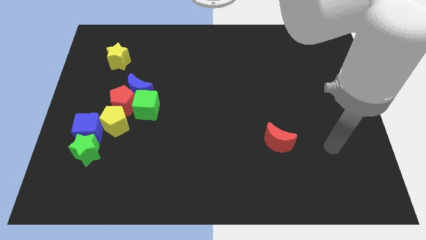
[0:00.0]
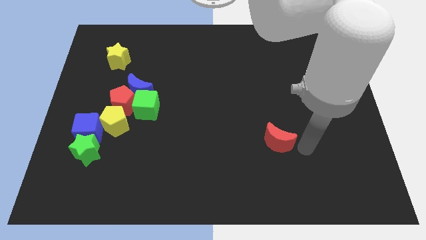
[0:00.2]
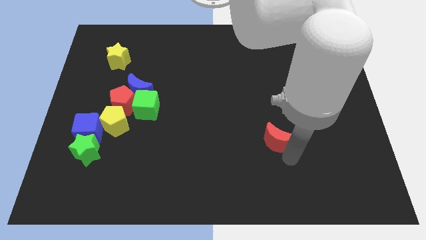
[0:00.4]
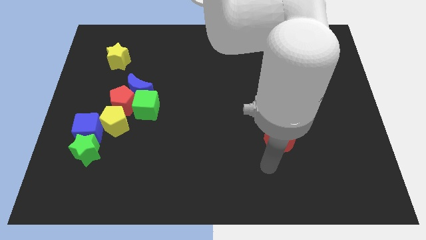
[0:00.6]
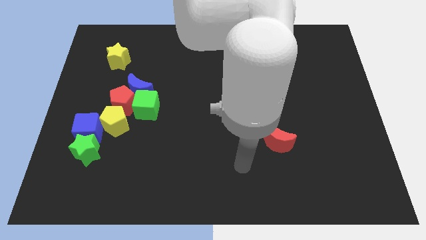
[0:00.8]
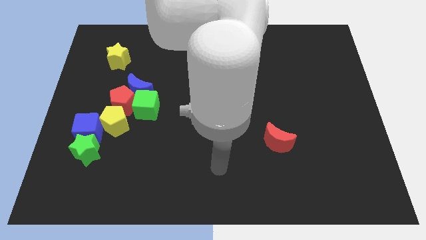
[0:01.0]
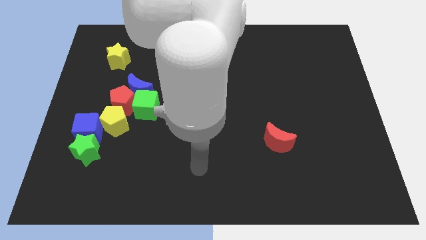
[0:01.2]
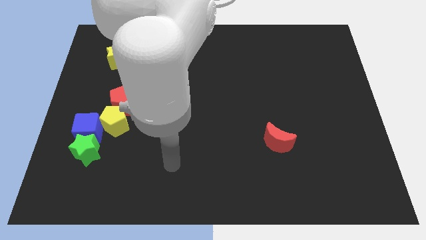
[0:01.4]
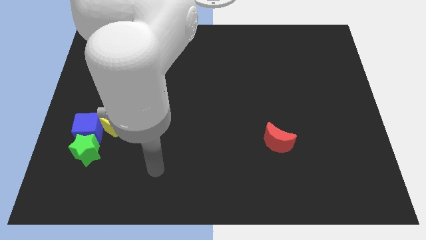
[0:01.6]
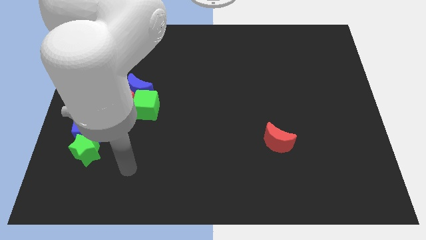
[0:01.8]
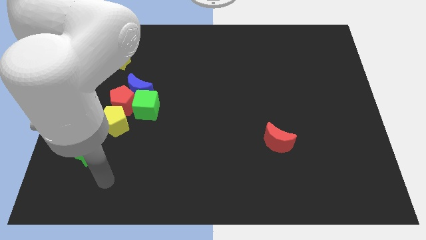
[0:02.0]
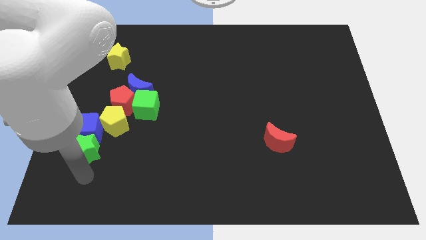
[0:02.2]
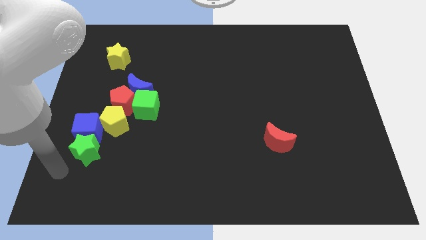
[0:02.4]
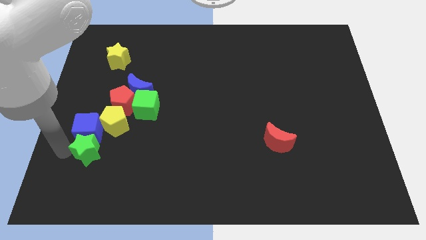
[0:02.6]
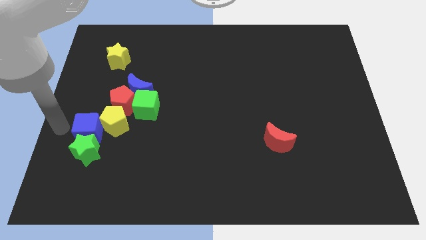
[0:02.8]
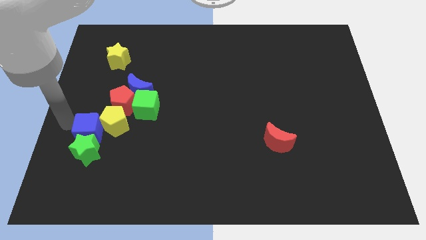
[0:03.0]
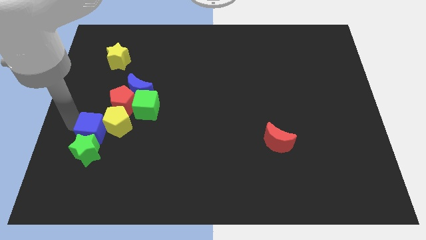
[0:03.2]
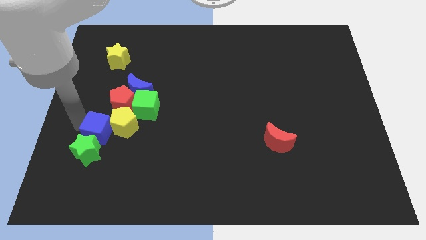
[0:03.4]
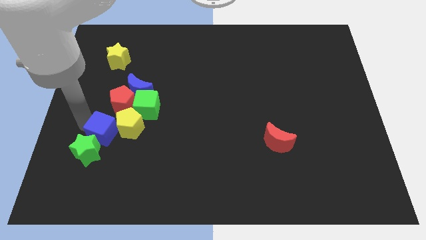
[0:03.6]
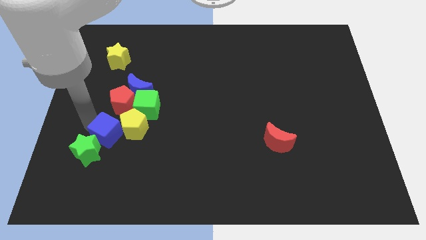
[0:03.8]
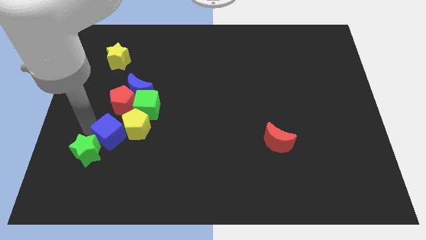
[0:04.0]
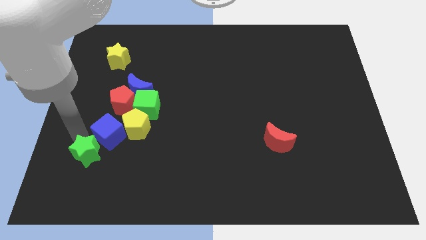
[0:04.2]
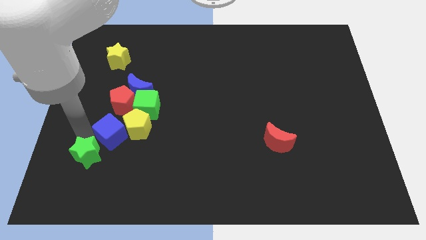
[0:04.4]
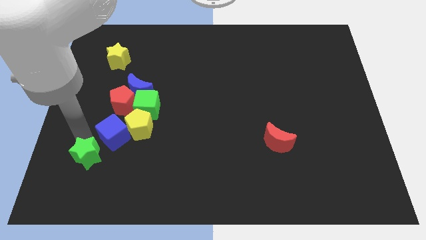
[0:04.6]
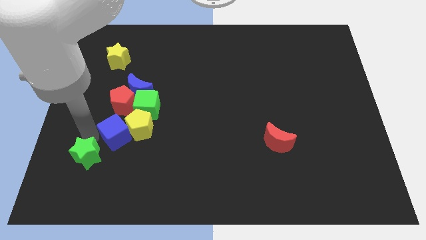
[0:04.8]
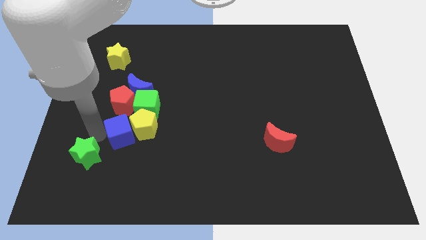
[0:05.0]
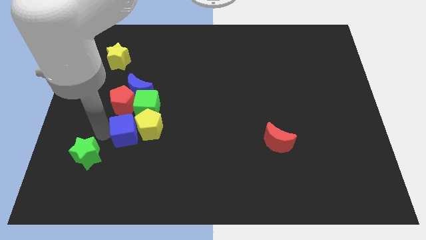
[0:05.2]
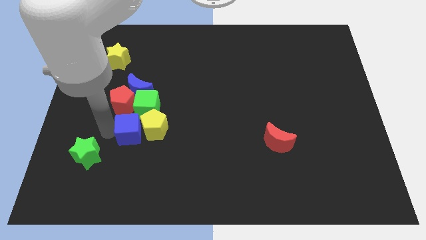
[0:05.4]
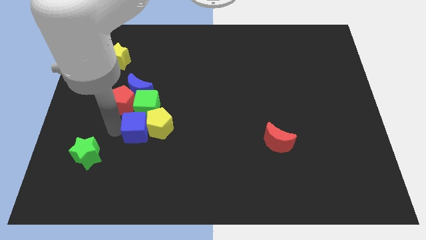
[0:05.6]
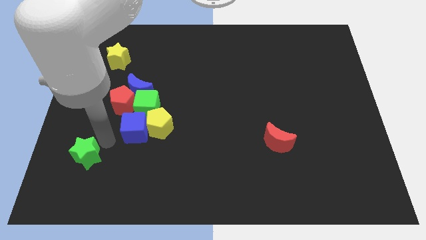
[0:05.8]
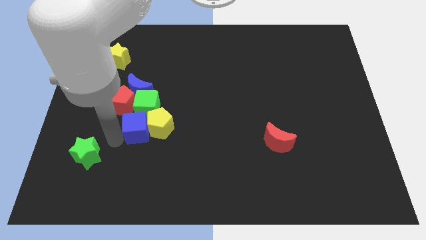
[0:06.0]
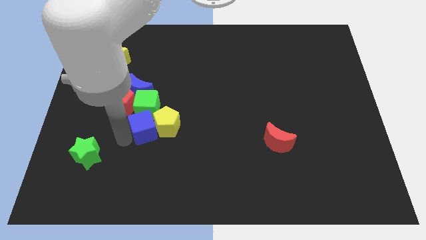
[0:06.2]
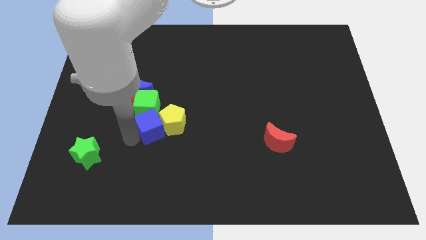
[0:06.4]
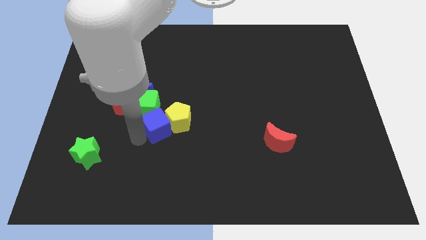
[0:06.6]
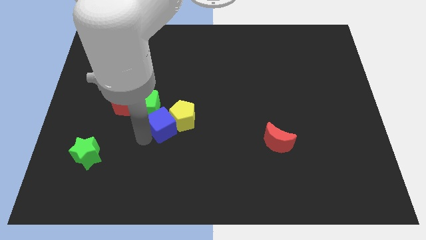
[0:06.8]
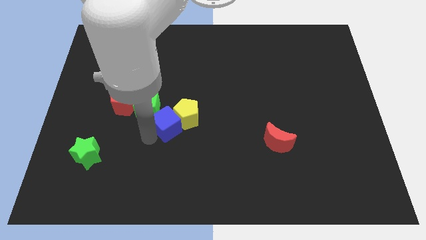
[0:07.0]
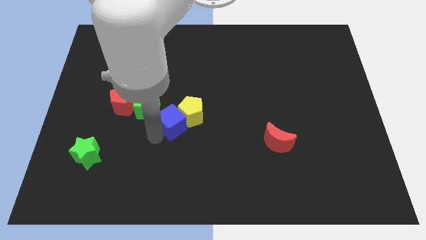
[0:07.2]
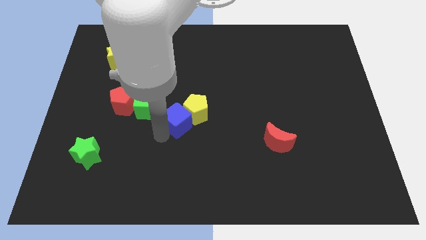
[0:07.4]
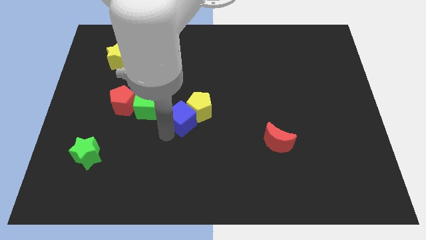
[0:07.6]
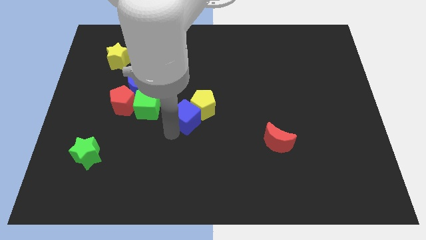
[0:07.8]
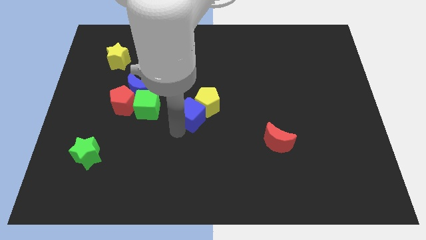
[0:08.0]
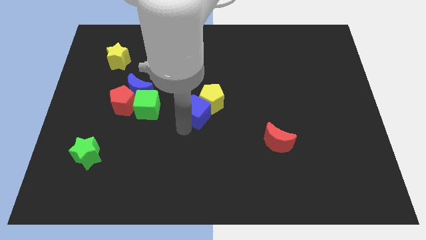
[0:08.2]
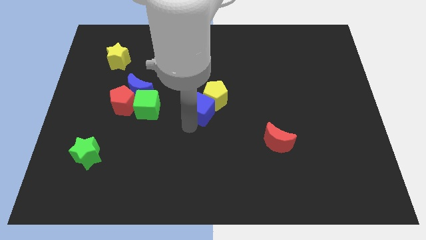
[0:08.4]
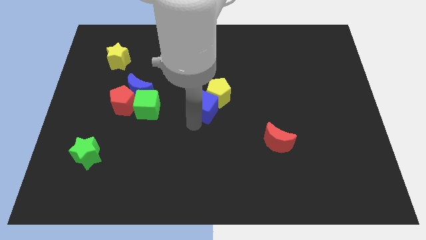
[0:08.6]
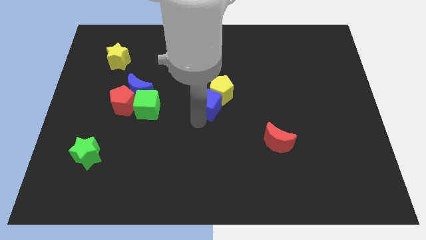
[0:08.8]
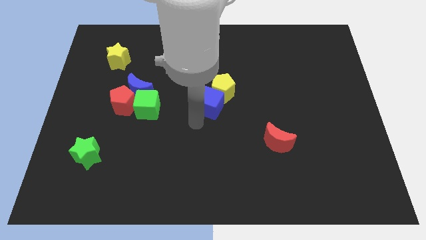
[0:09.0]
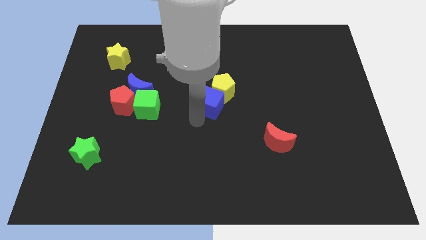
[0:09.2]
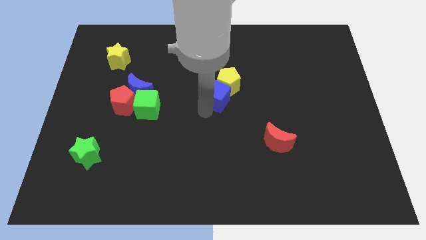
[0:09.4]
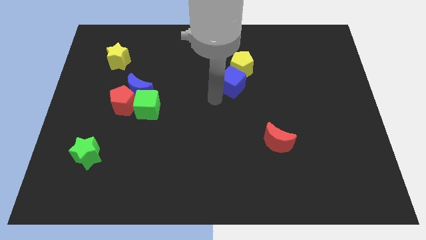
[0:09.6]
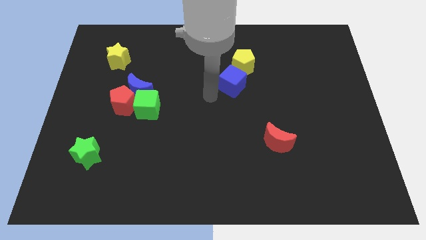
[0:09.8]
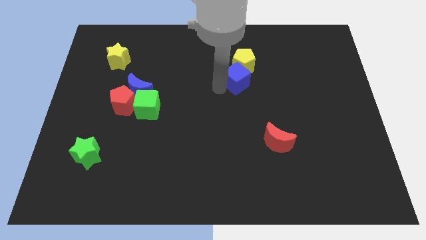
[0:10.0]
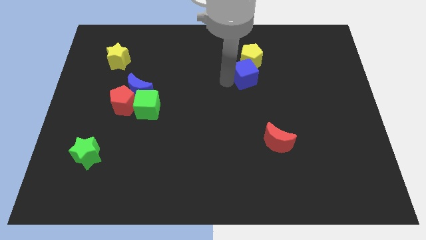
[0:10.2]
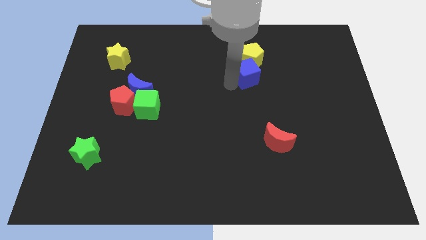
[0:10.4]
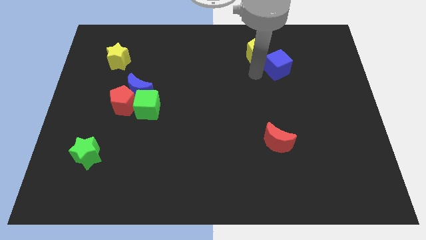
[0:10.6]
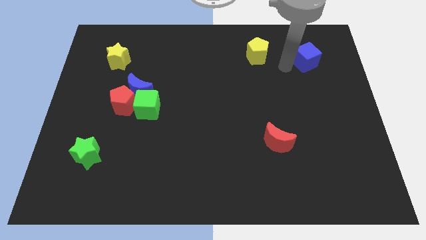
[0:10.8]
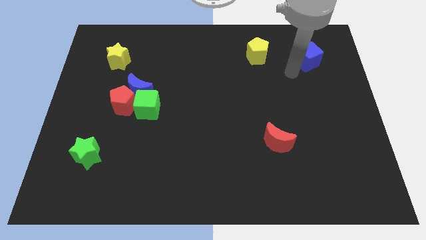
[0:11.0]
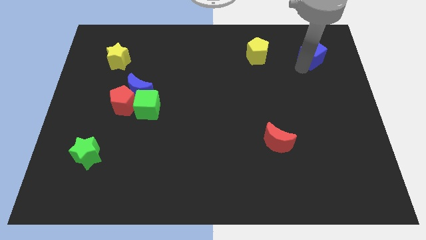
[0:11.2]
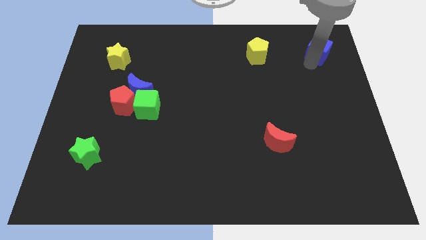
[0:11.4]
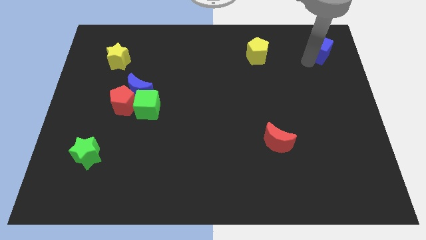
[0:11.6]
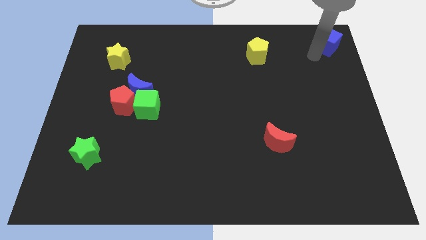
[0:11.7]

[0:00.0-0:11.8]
slide the blue cube to the top right corner
